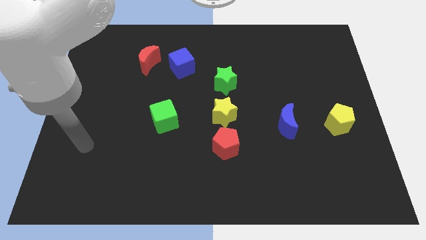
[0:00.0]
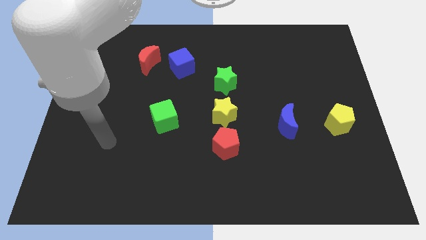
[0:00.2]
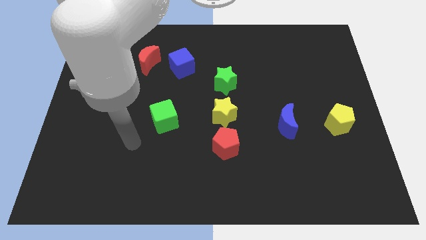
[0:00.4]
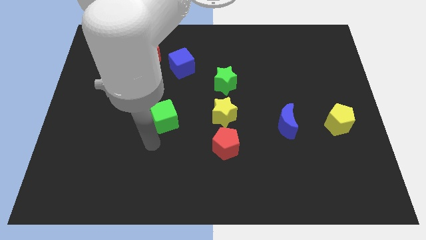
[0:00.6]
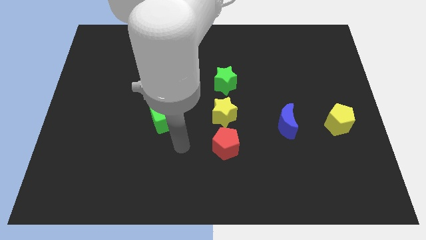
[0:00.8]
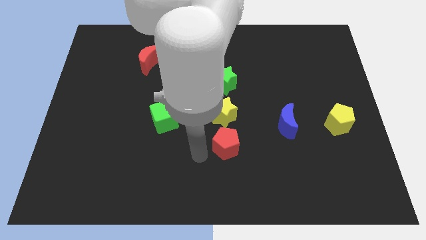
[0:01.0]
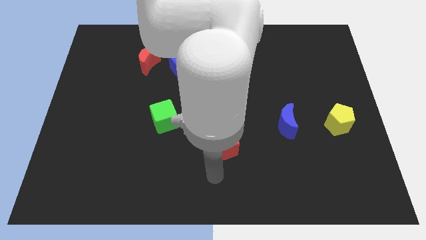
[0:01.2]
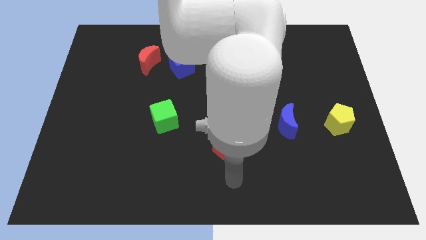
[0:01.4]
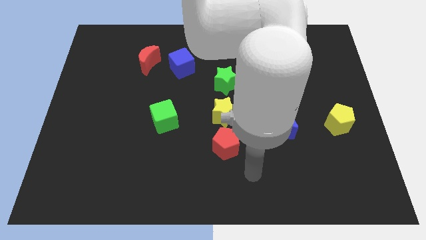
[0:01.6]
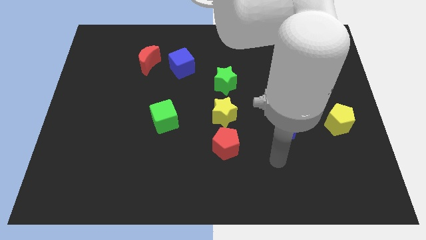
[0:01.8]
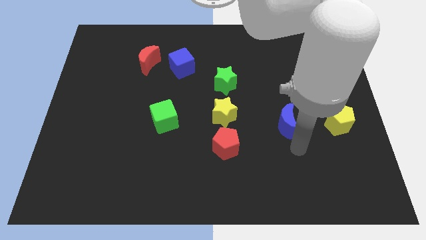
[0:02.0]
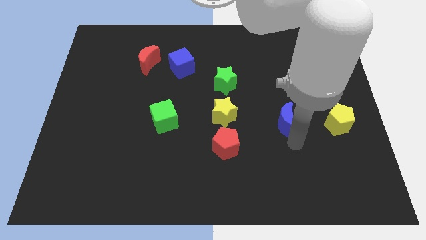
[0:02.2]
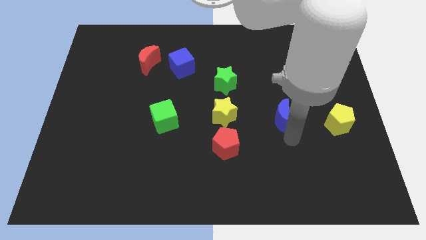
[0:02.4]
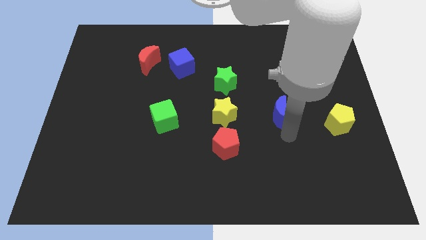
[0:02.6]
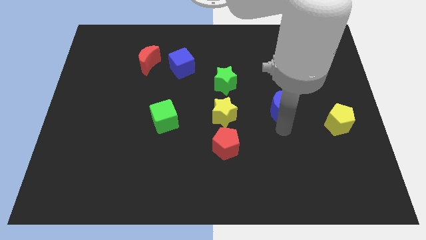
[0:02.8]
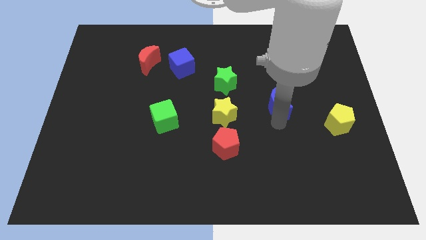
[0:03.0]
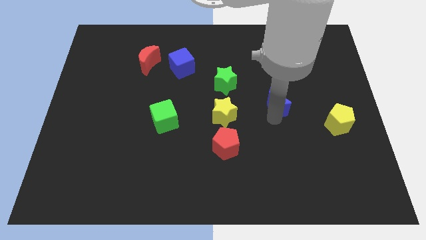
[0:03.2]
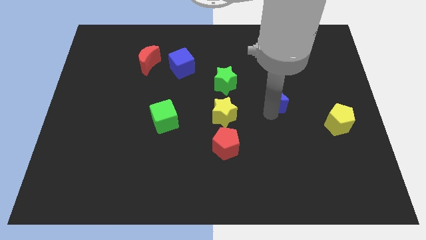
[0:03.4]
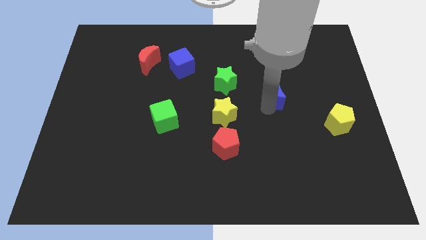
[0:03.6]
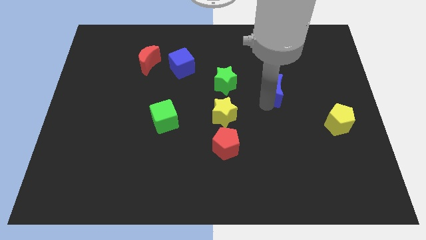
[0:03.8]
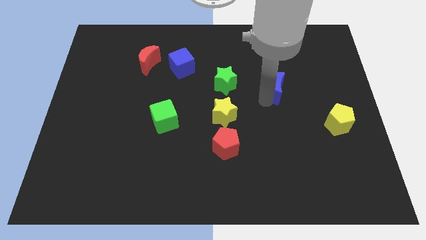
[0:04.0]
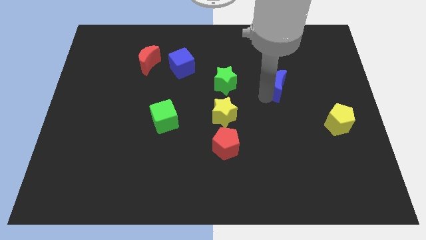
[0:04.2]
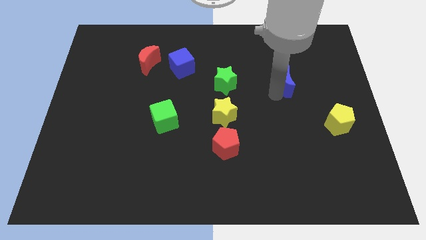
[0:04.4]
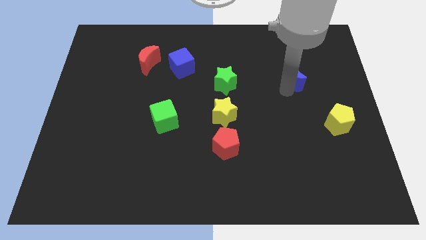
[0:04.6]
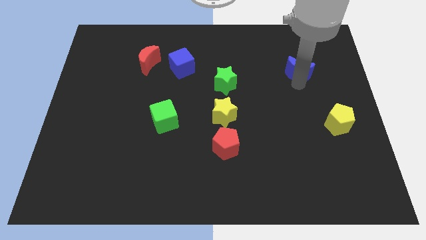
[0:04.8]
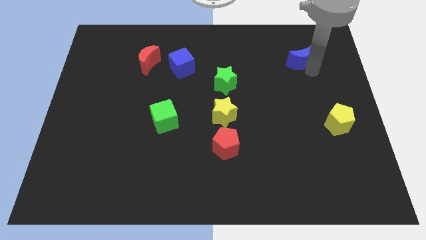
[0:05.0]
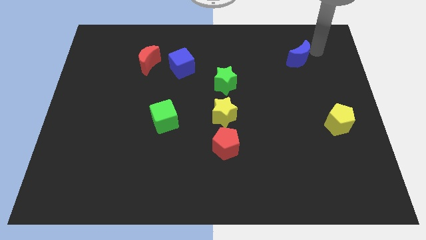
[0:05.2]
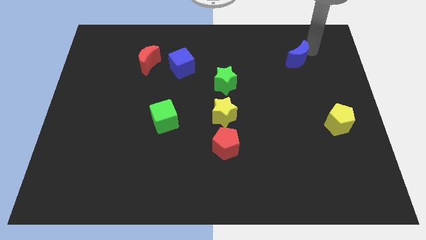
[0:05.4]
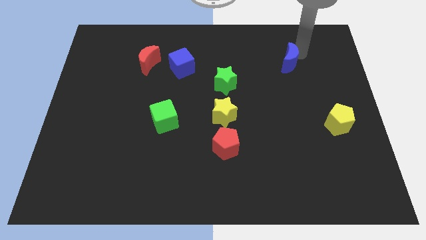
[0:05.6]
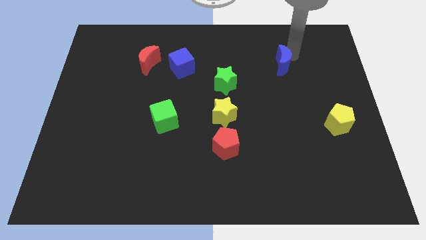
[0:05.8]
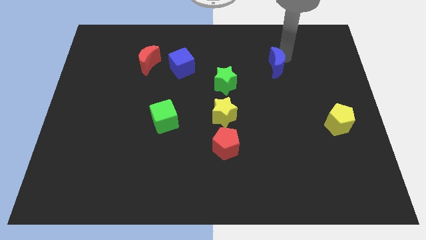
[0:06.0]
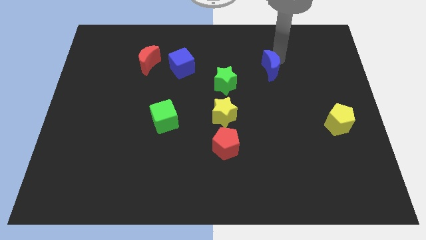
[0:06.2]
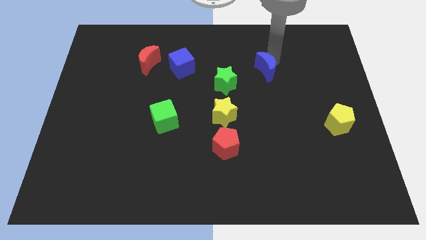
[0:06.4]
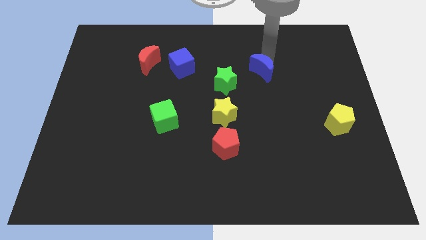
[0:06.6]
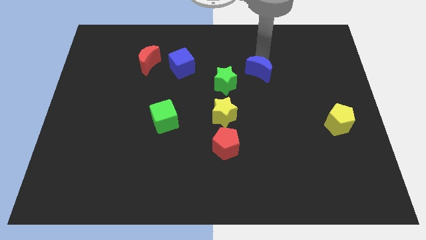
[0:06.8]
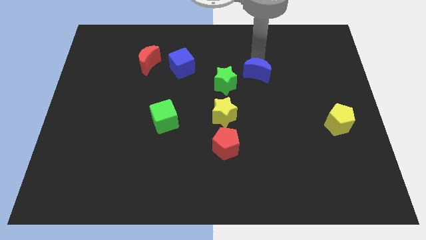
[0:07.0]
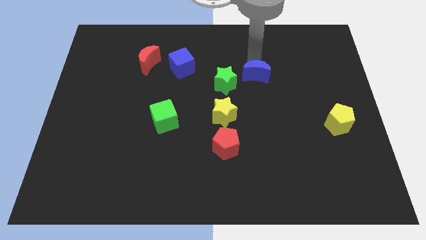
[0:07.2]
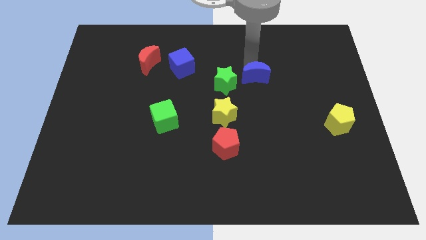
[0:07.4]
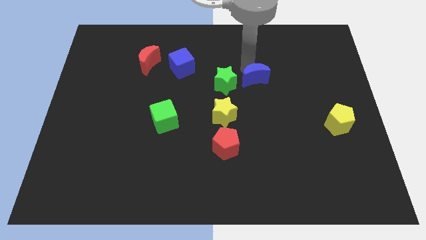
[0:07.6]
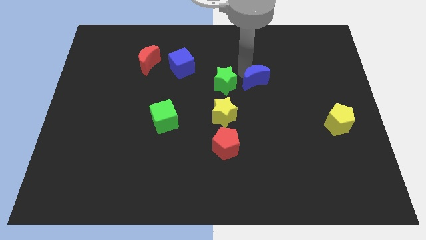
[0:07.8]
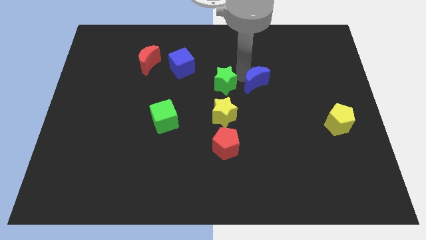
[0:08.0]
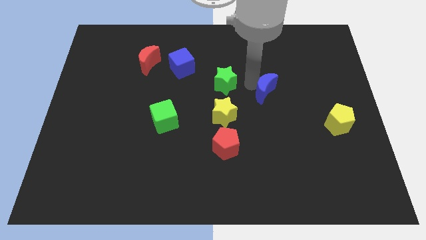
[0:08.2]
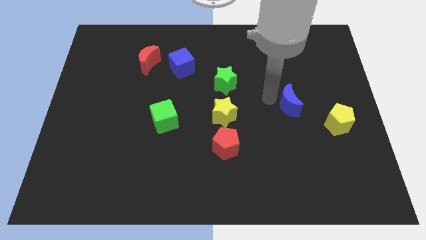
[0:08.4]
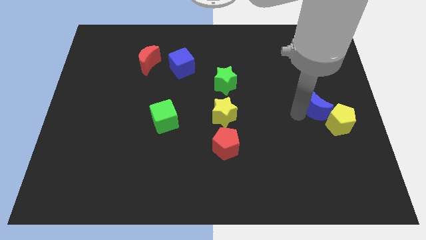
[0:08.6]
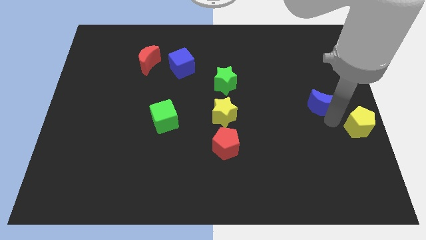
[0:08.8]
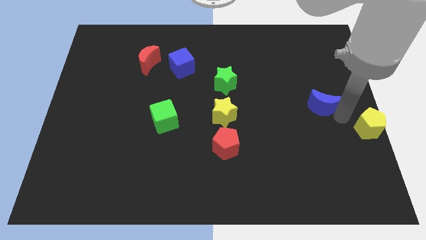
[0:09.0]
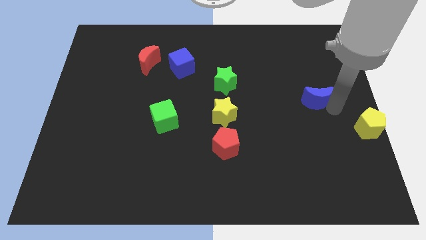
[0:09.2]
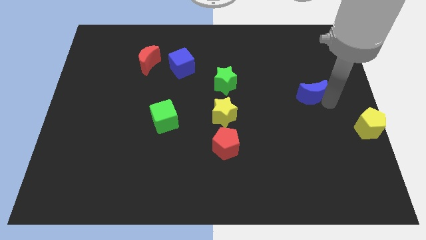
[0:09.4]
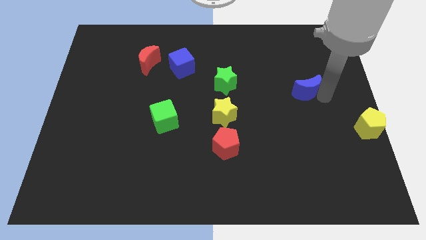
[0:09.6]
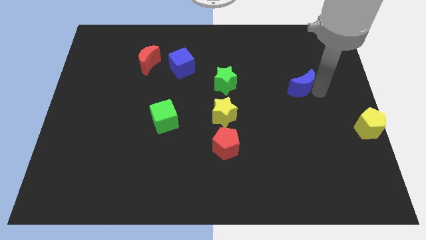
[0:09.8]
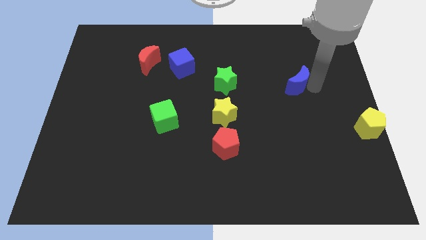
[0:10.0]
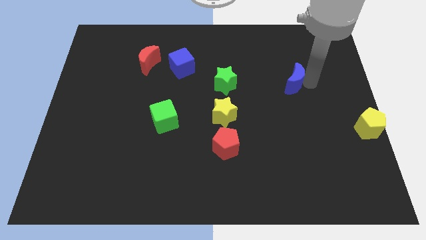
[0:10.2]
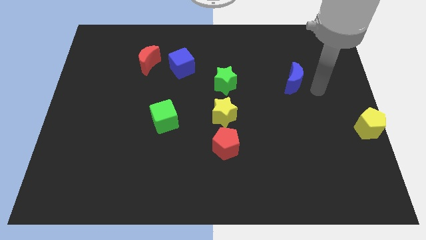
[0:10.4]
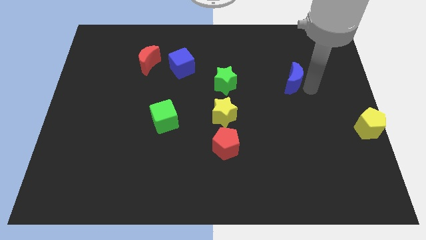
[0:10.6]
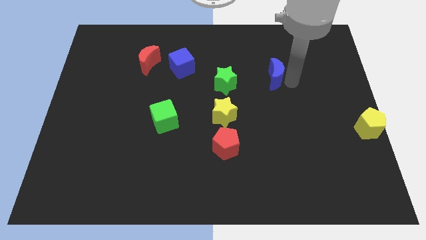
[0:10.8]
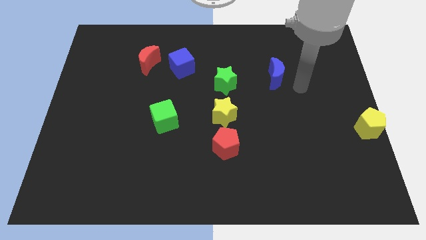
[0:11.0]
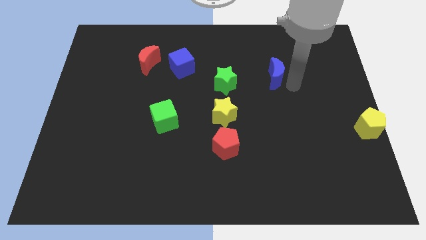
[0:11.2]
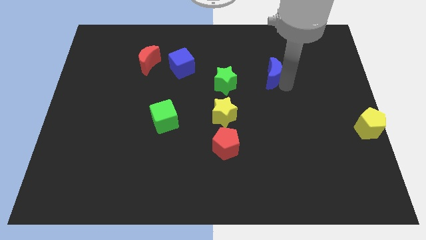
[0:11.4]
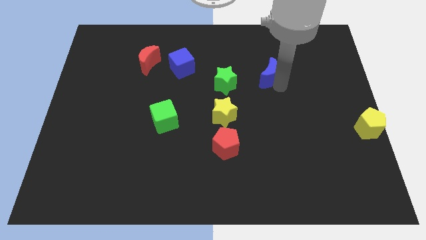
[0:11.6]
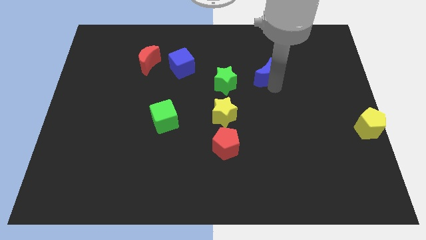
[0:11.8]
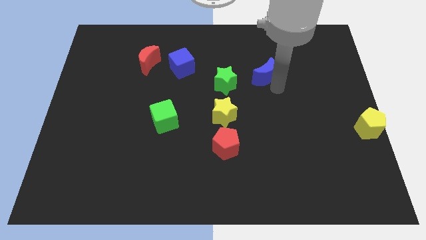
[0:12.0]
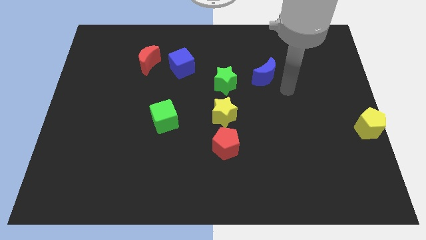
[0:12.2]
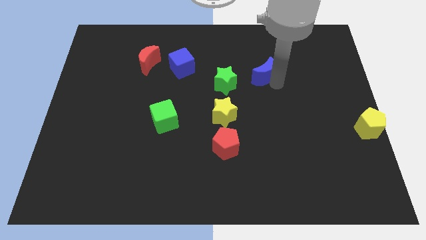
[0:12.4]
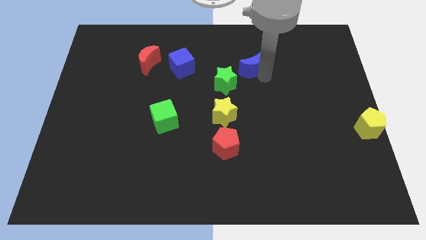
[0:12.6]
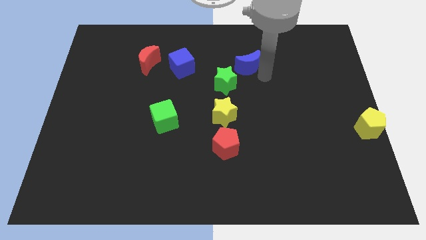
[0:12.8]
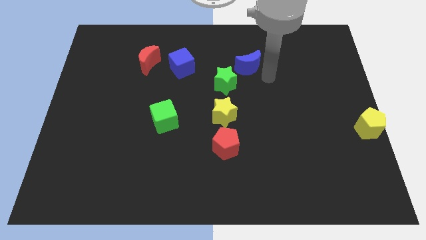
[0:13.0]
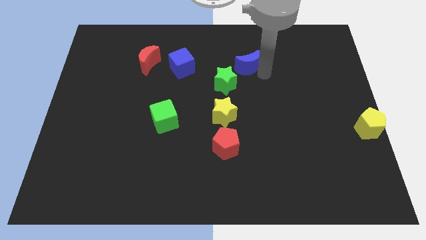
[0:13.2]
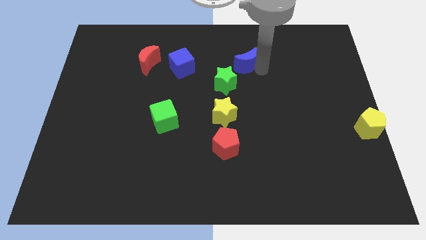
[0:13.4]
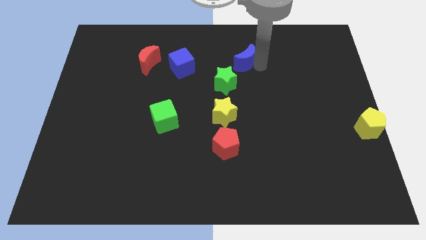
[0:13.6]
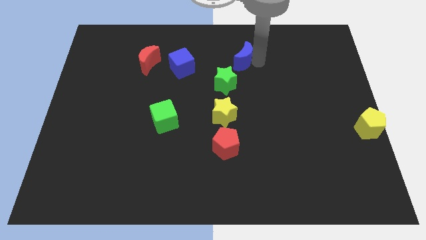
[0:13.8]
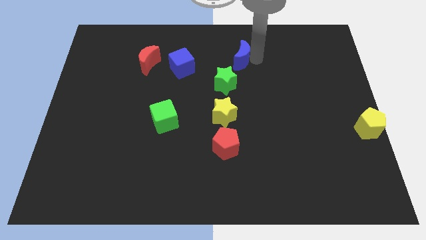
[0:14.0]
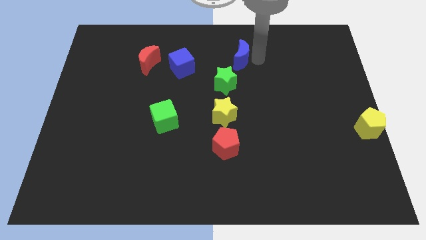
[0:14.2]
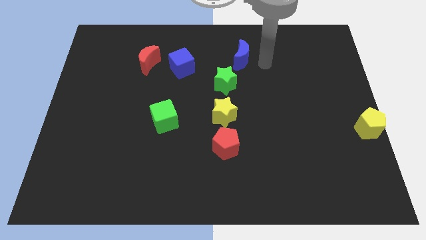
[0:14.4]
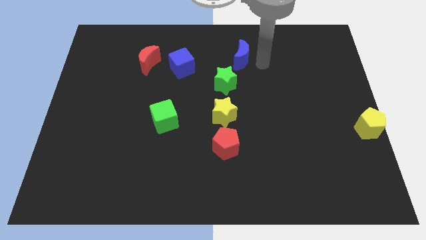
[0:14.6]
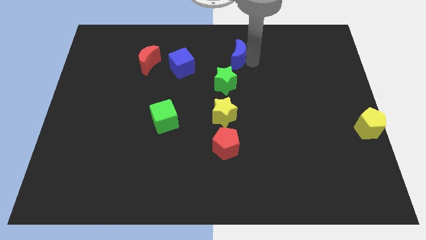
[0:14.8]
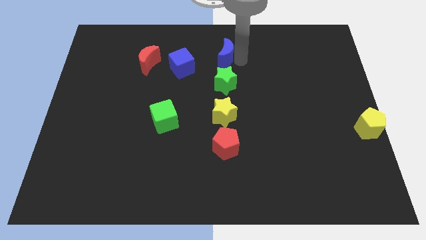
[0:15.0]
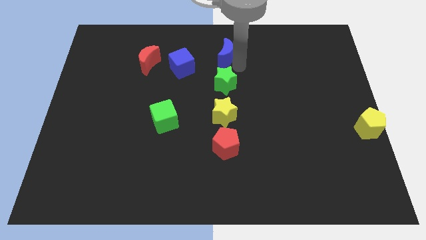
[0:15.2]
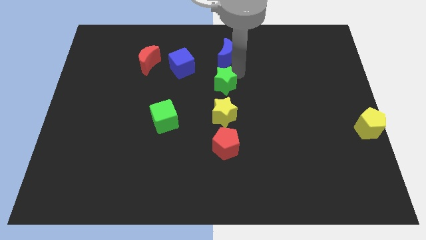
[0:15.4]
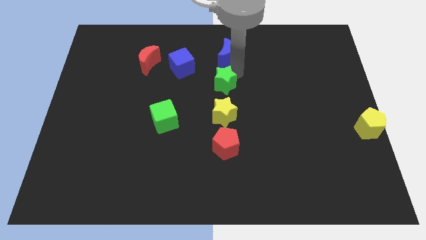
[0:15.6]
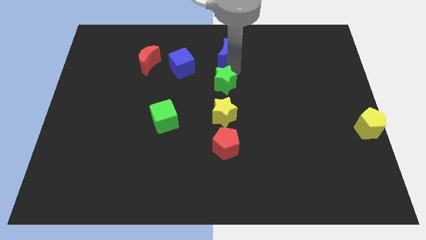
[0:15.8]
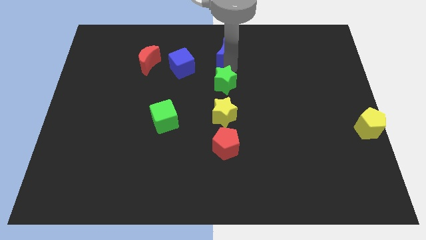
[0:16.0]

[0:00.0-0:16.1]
move the blue moon to the top side
